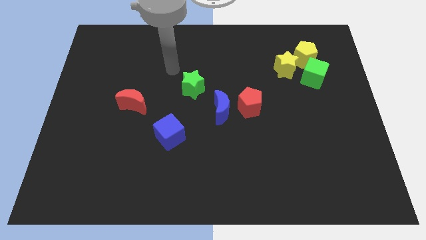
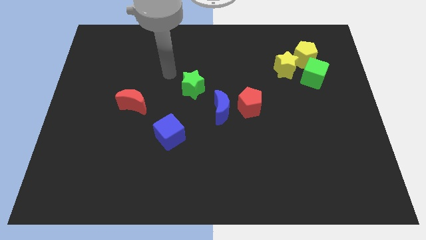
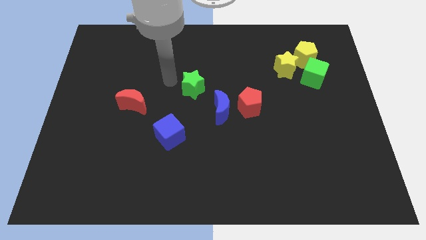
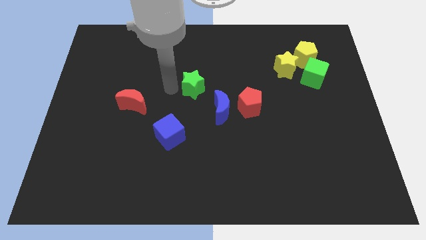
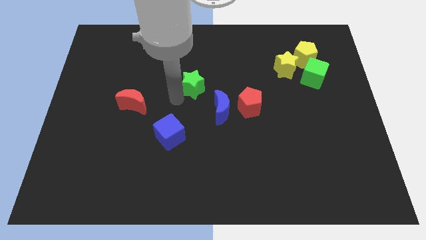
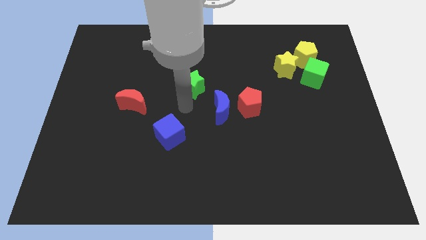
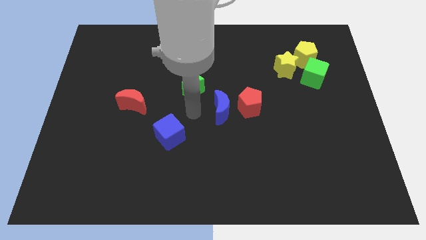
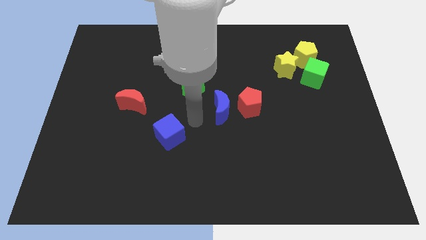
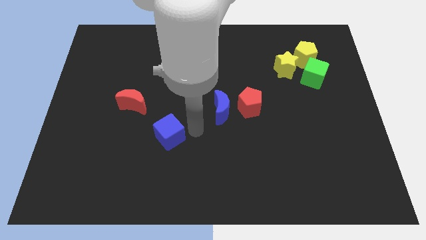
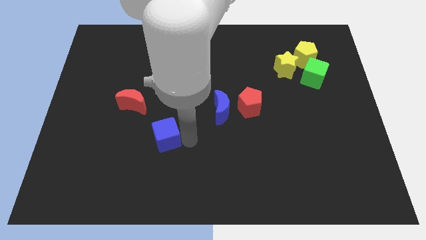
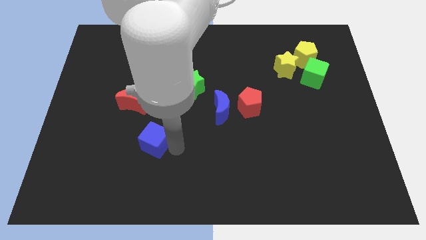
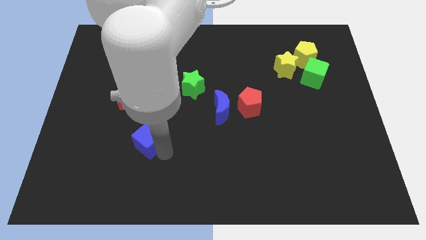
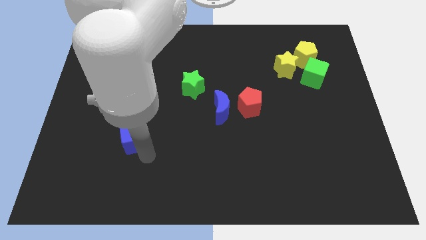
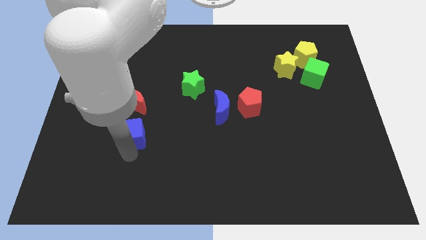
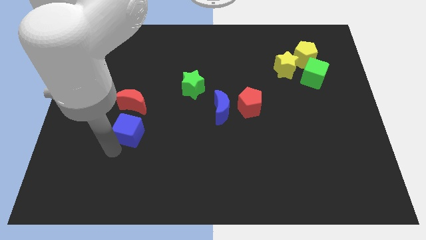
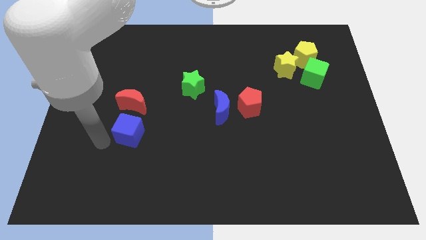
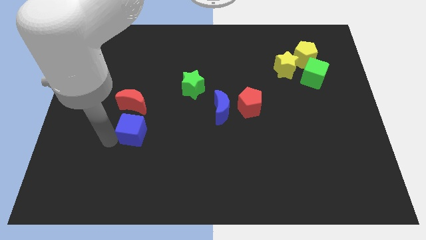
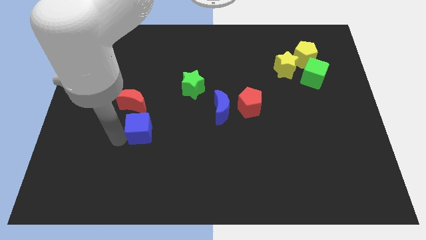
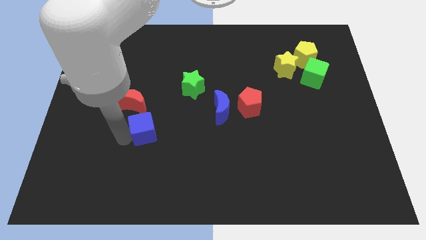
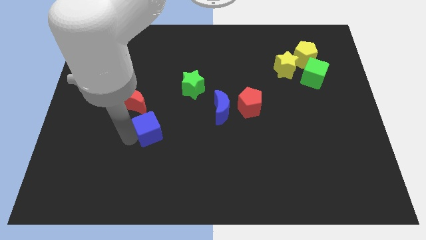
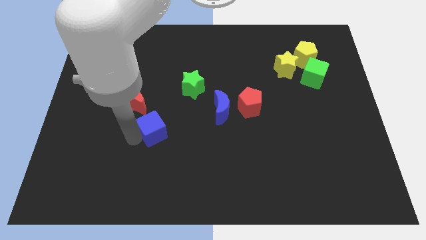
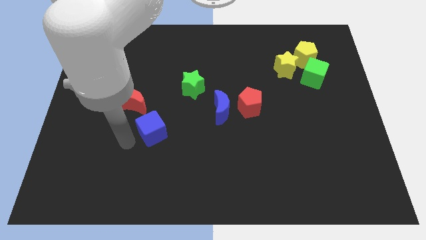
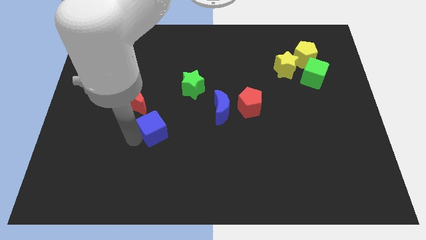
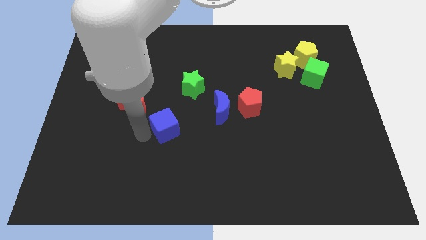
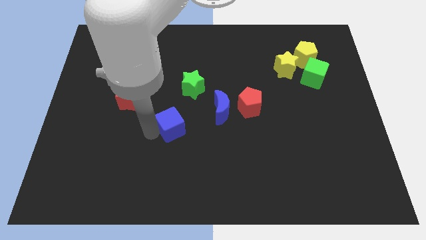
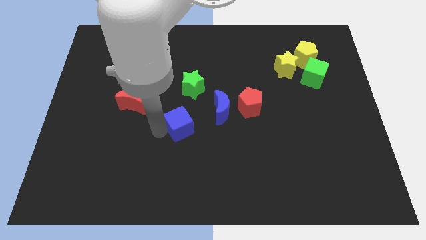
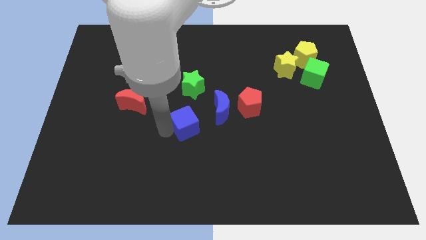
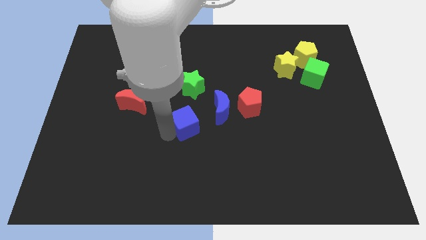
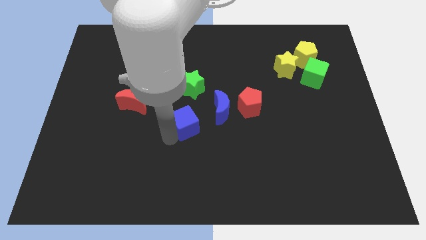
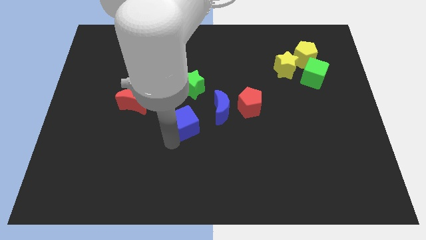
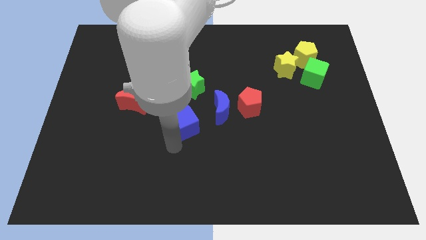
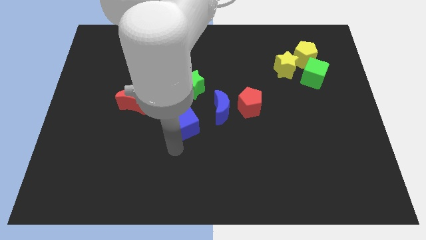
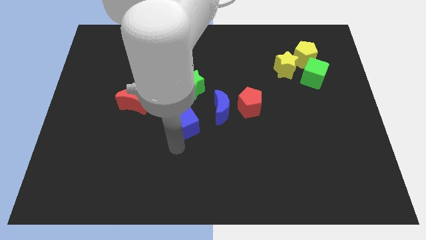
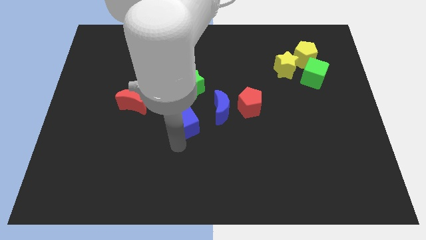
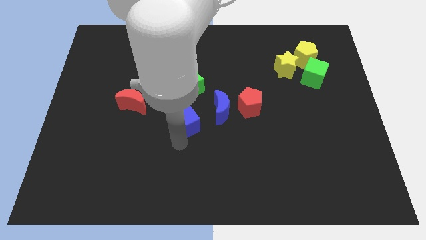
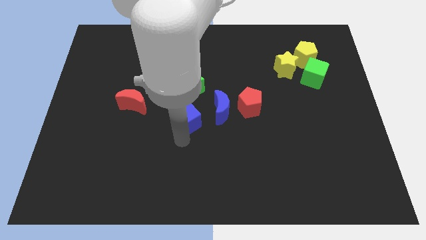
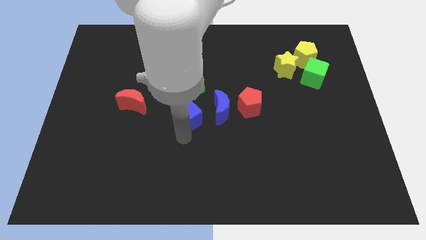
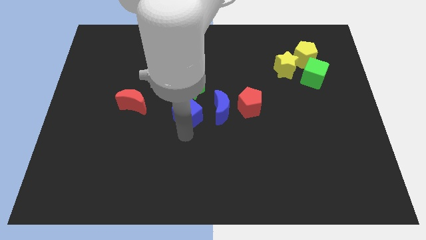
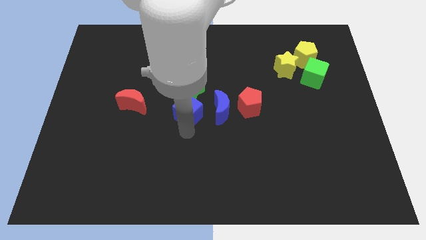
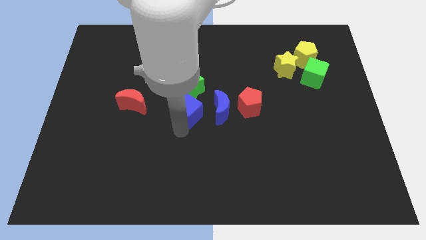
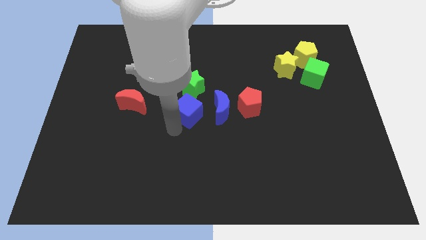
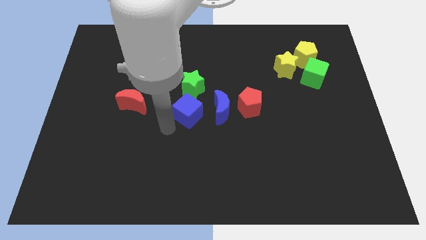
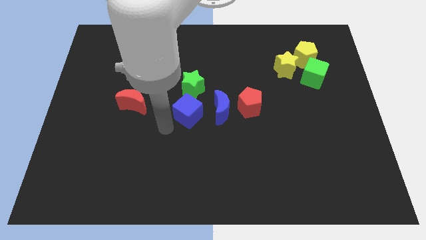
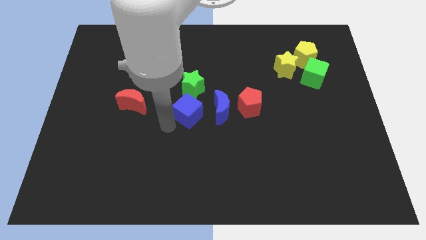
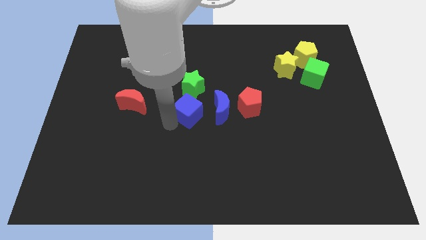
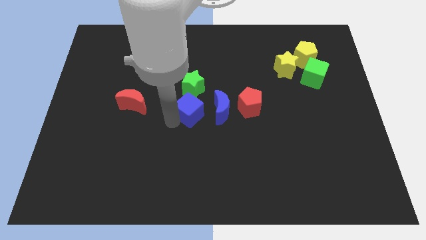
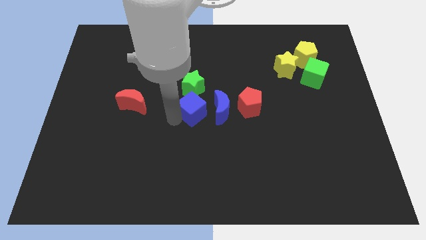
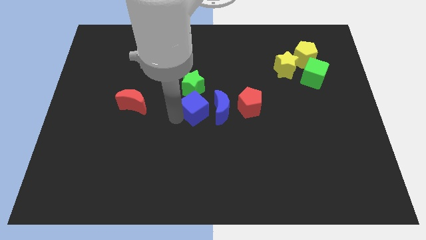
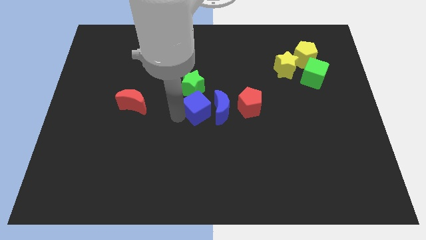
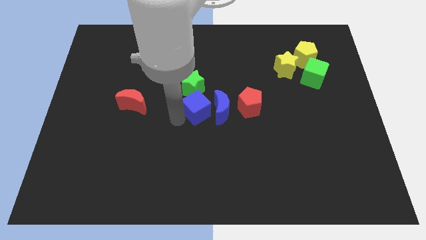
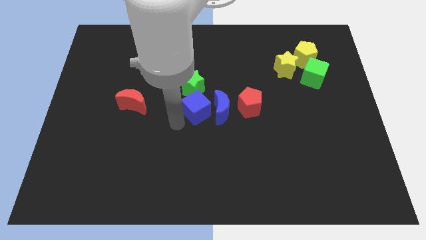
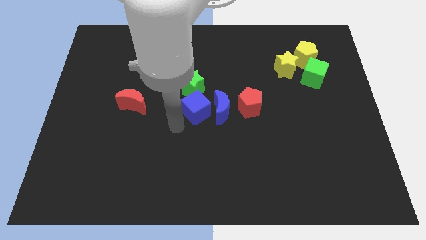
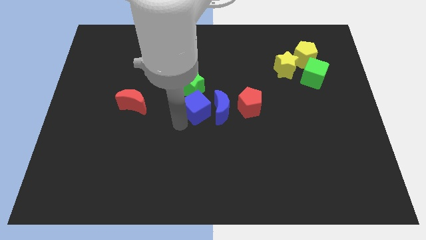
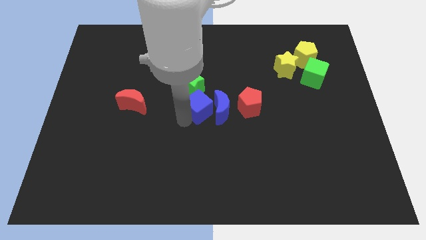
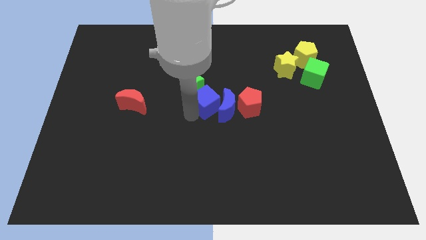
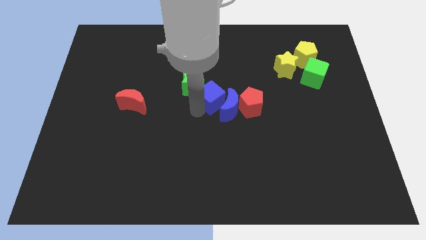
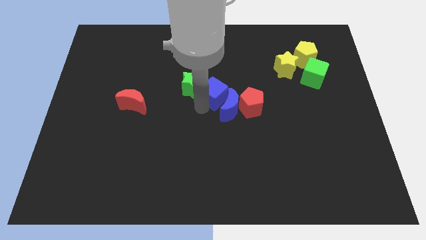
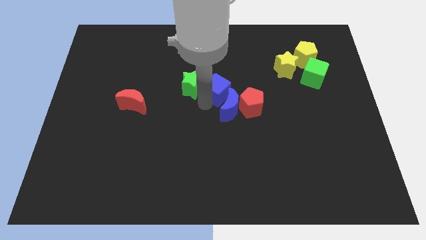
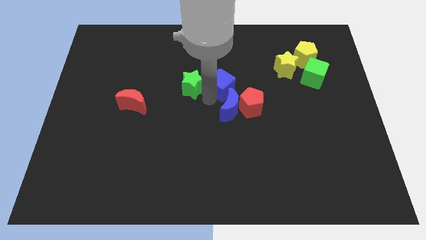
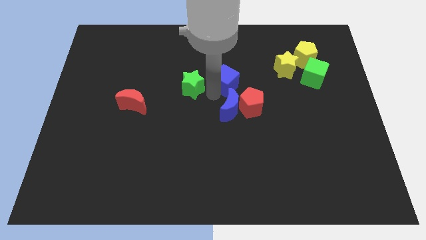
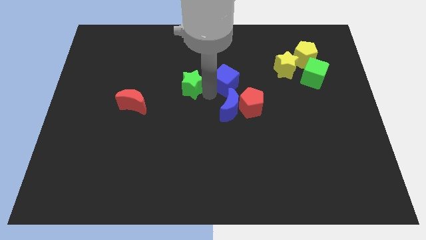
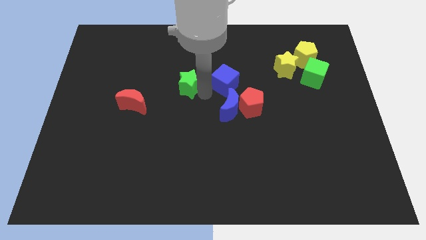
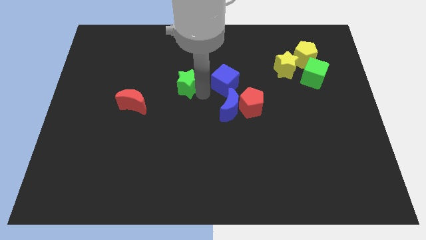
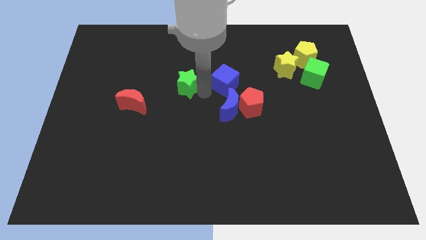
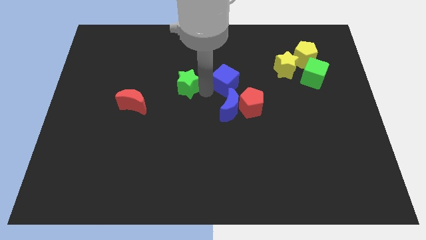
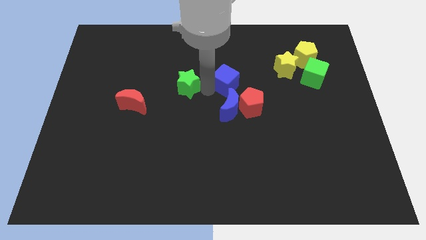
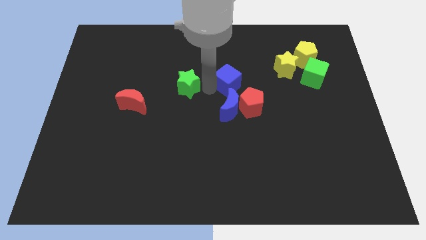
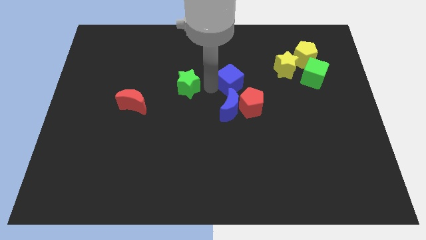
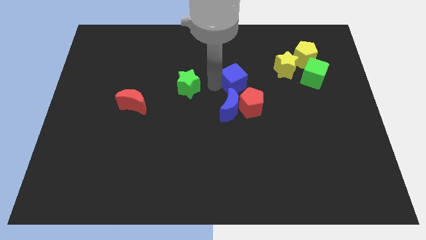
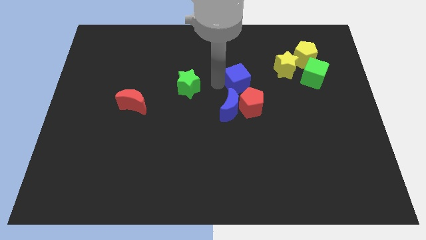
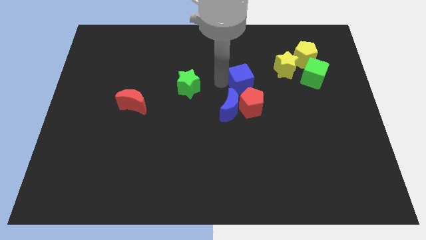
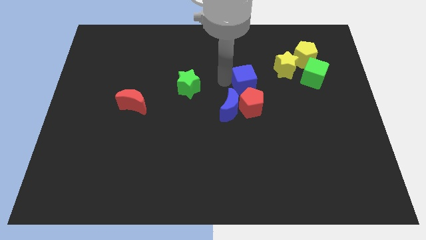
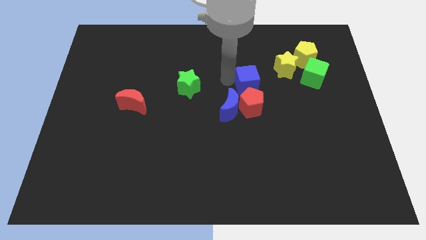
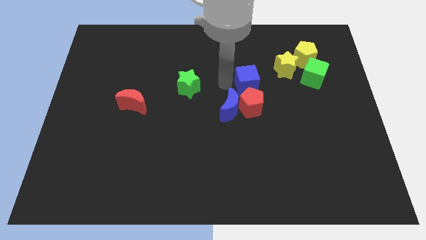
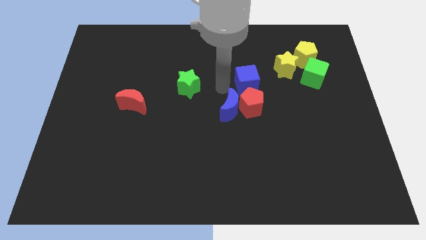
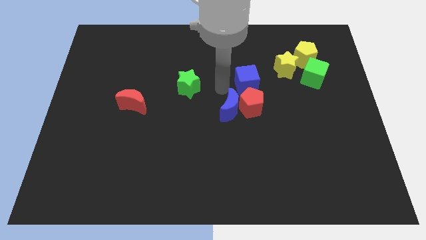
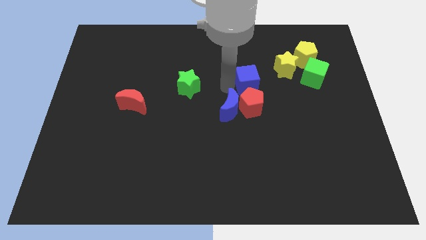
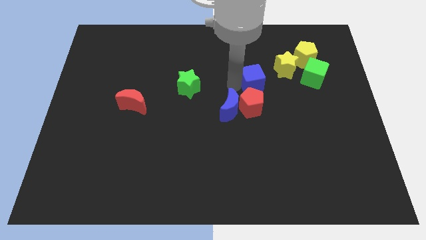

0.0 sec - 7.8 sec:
move the blue cube just left of the green cube
